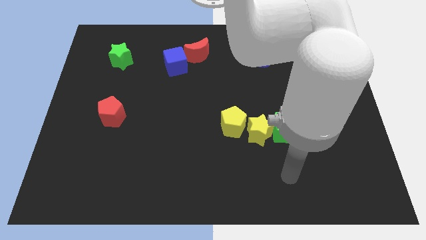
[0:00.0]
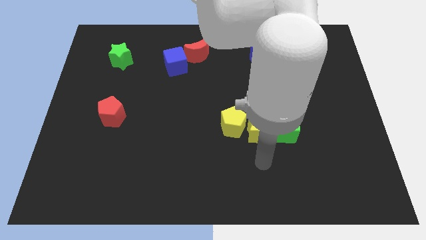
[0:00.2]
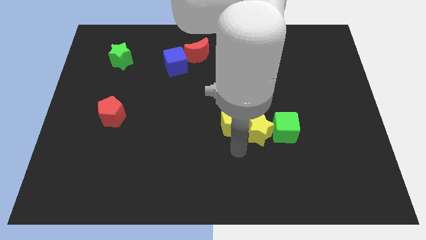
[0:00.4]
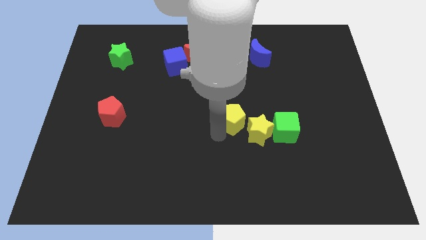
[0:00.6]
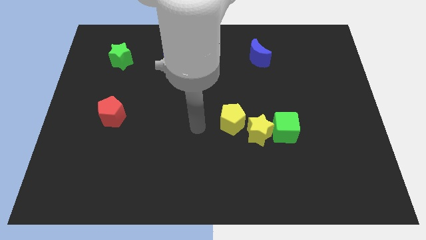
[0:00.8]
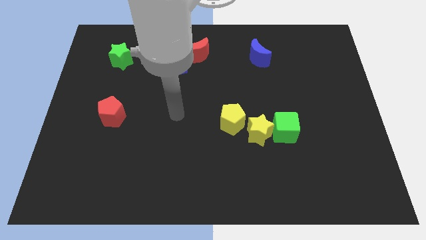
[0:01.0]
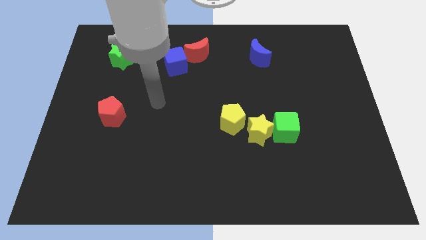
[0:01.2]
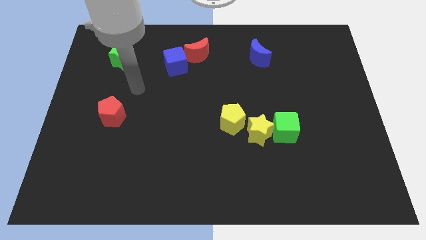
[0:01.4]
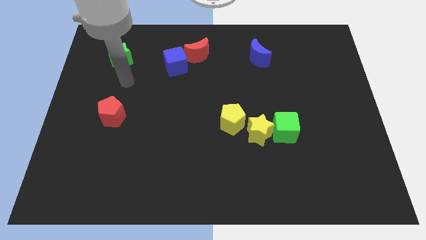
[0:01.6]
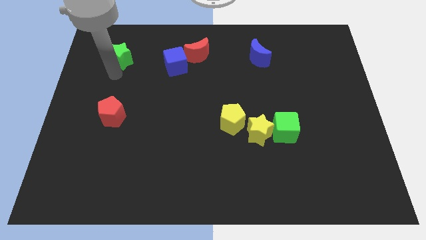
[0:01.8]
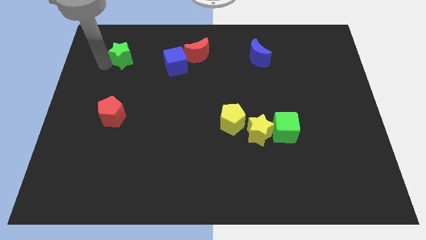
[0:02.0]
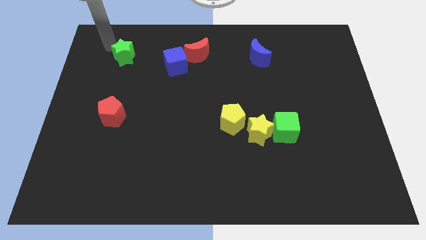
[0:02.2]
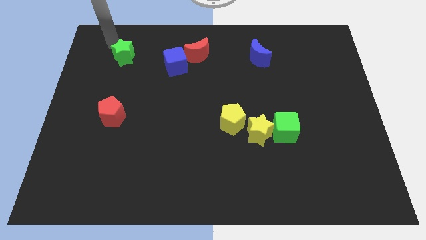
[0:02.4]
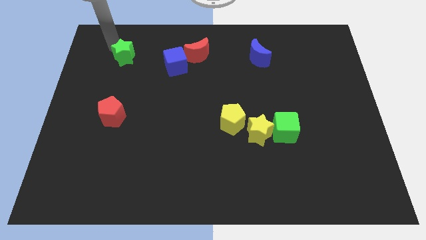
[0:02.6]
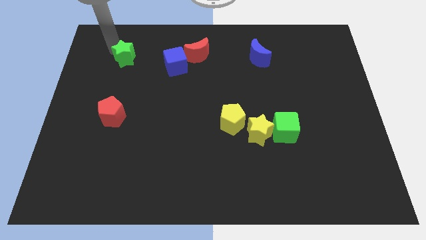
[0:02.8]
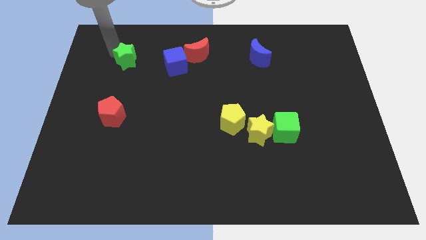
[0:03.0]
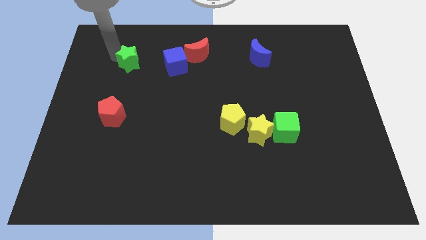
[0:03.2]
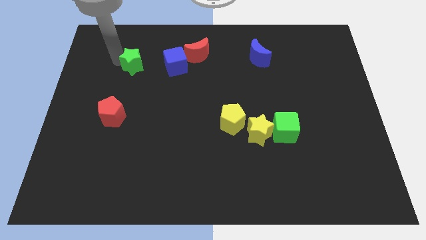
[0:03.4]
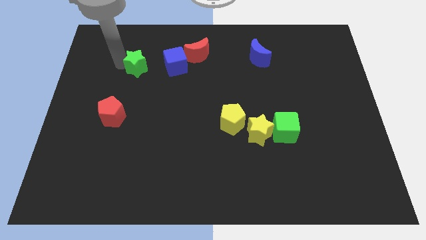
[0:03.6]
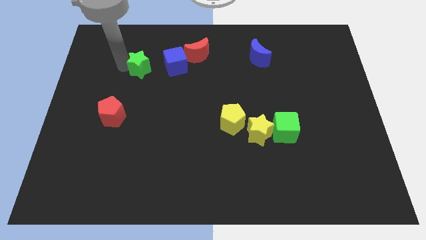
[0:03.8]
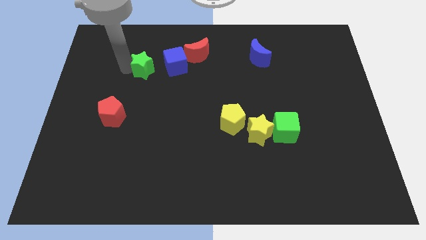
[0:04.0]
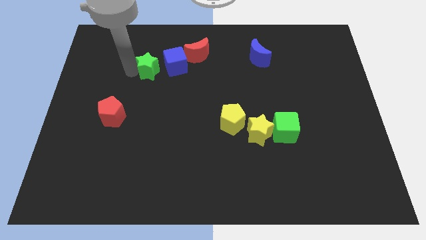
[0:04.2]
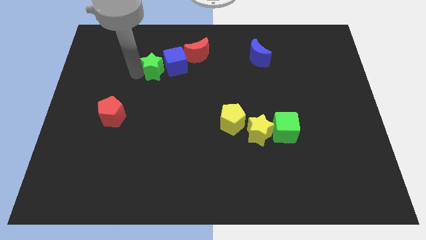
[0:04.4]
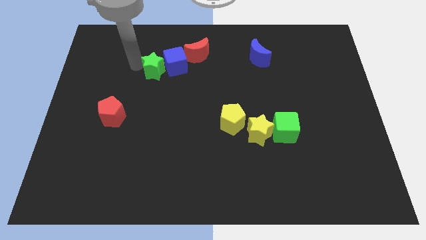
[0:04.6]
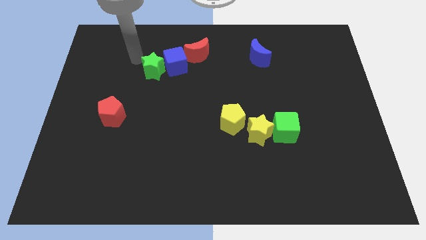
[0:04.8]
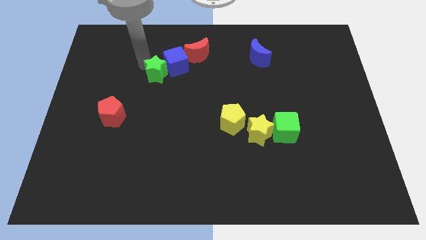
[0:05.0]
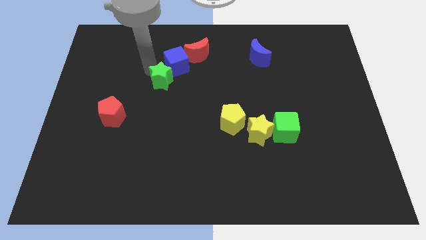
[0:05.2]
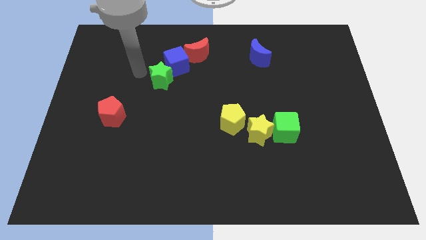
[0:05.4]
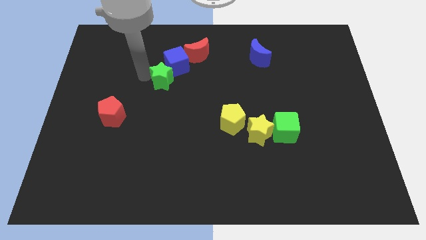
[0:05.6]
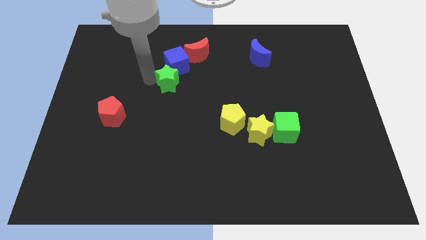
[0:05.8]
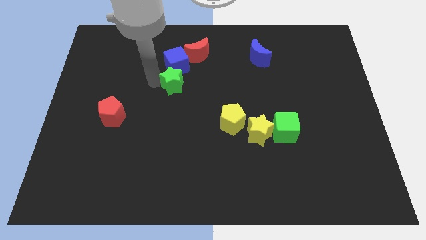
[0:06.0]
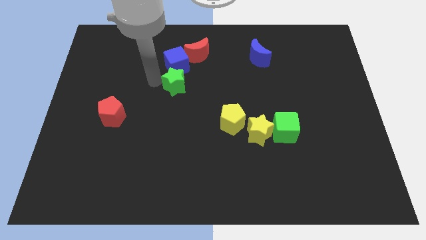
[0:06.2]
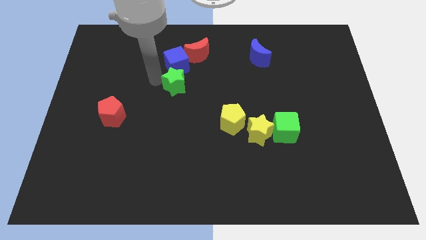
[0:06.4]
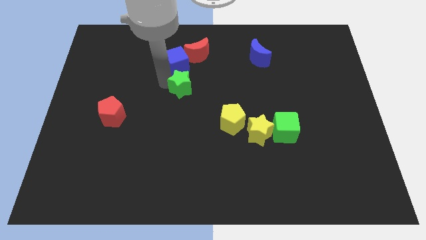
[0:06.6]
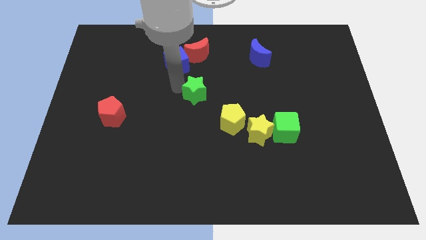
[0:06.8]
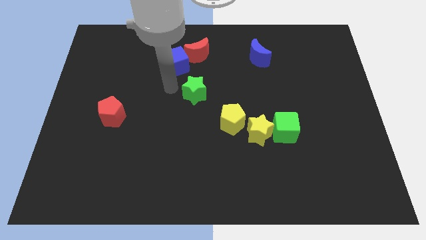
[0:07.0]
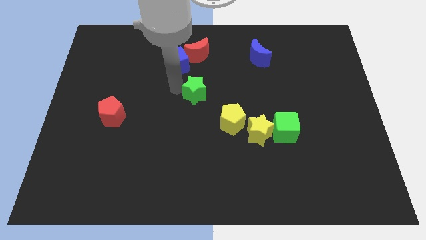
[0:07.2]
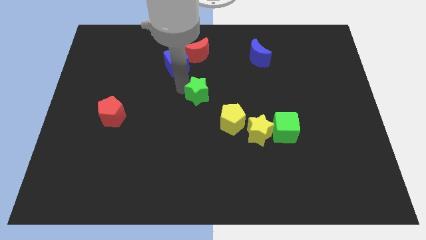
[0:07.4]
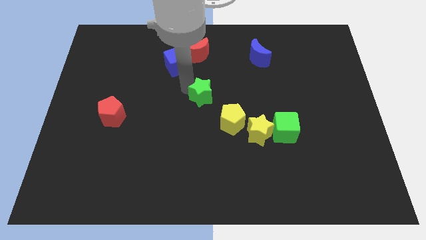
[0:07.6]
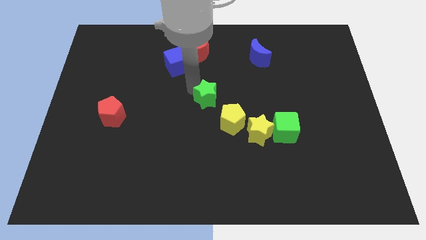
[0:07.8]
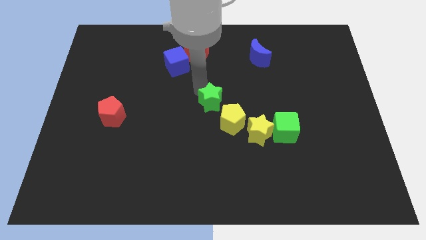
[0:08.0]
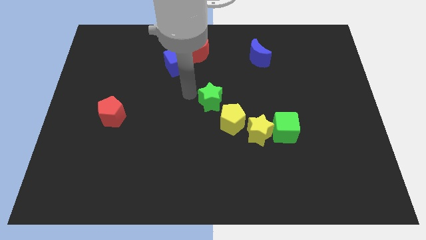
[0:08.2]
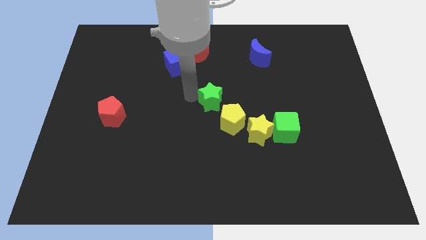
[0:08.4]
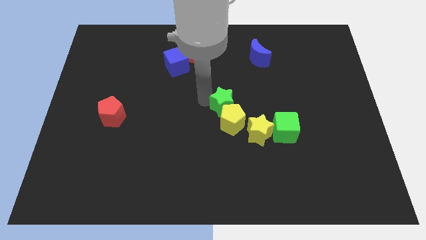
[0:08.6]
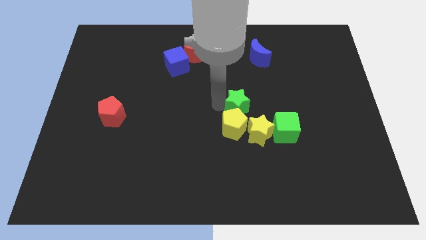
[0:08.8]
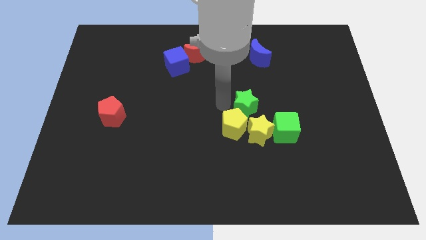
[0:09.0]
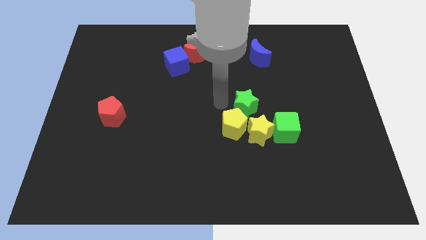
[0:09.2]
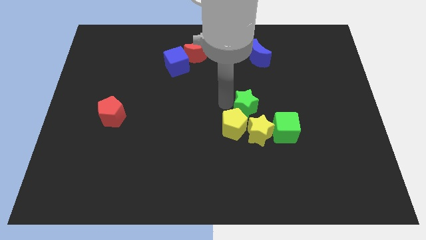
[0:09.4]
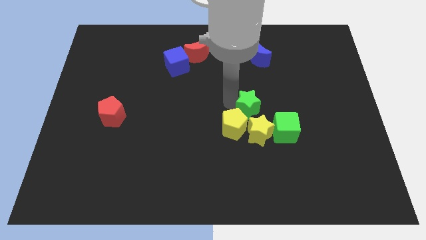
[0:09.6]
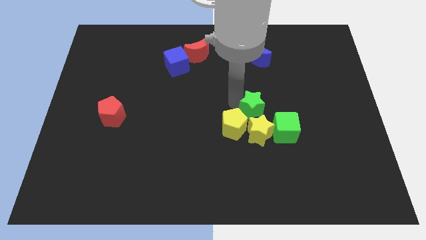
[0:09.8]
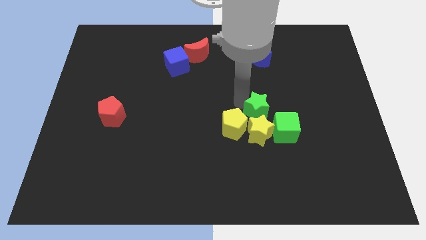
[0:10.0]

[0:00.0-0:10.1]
slide the green star diagonally up and to the right of the yellow star

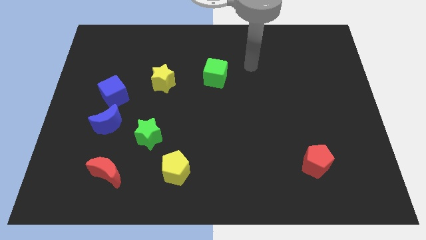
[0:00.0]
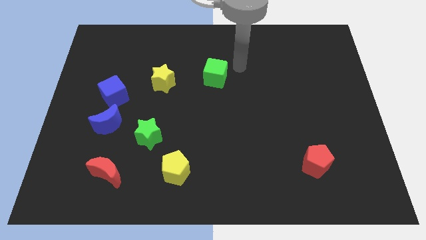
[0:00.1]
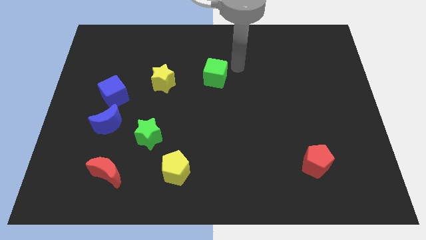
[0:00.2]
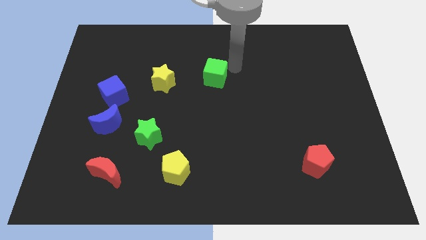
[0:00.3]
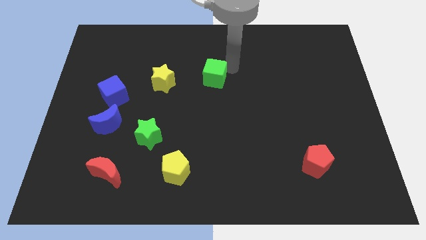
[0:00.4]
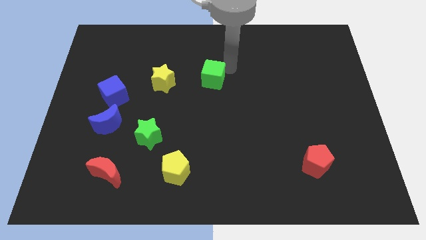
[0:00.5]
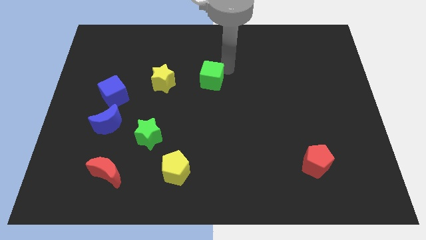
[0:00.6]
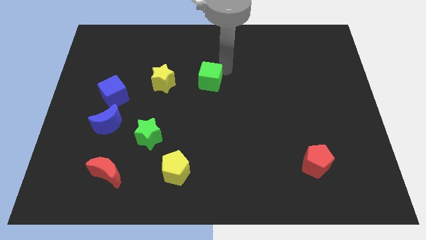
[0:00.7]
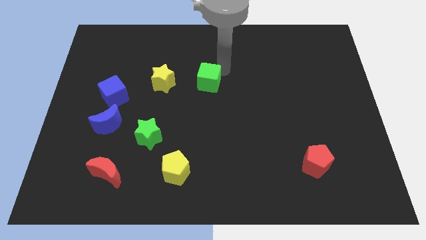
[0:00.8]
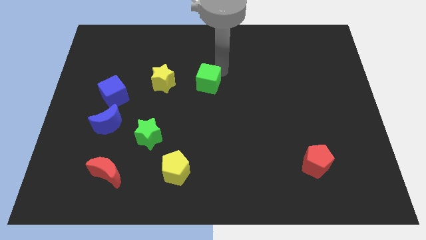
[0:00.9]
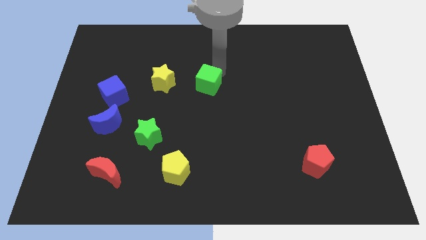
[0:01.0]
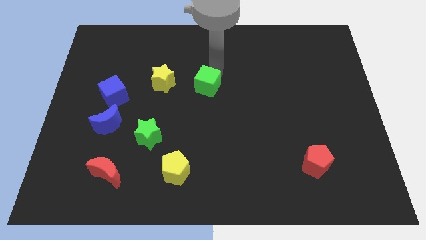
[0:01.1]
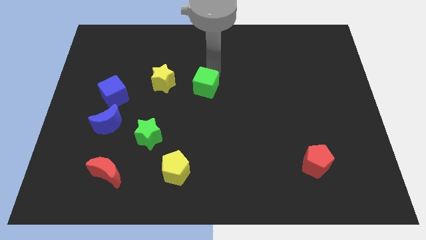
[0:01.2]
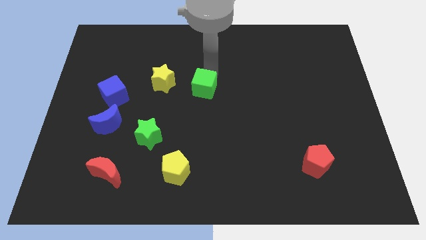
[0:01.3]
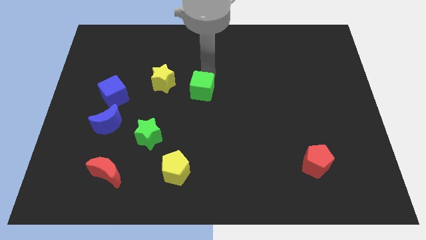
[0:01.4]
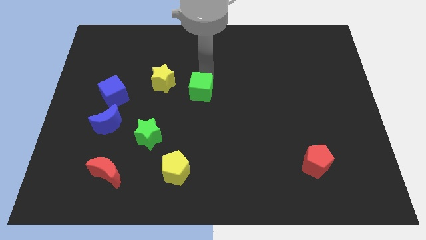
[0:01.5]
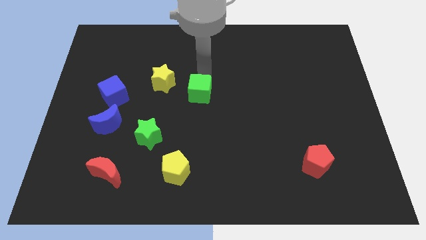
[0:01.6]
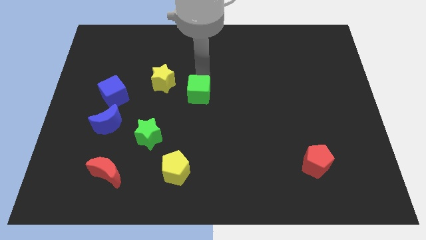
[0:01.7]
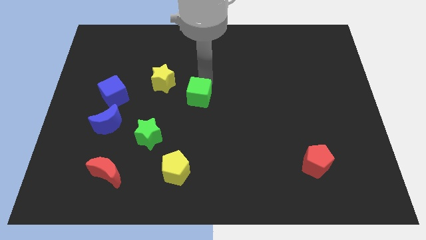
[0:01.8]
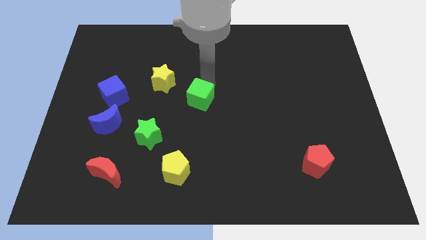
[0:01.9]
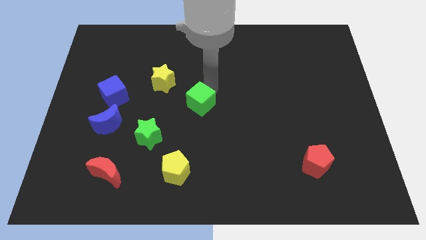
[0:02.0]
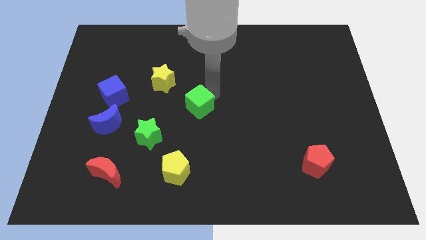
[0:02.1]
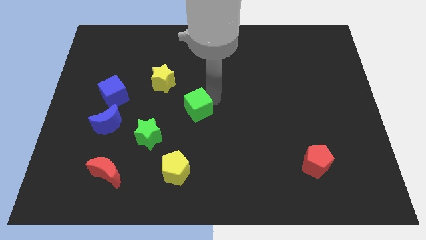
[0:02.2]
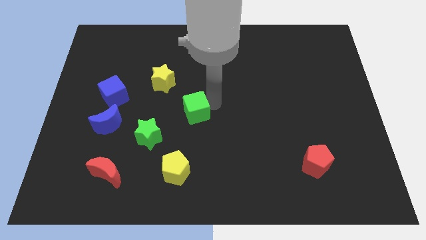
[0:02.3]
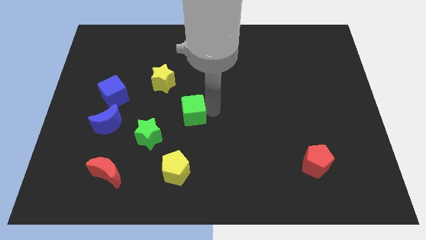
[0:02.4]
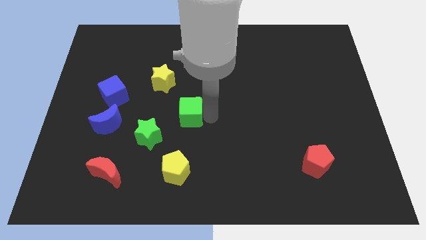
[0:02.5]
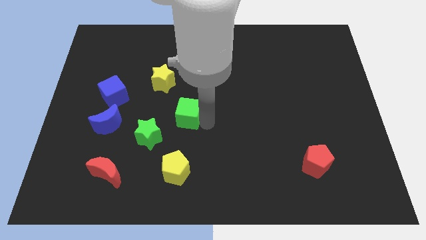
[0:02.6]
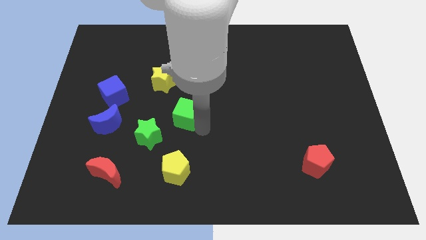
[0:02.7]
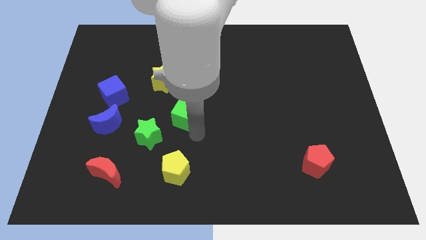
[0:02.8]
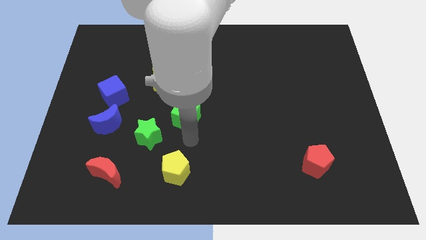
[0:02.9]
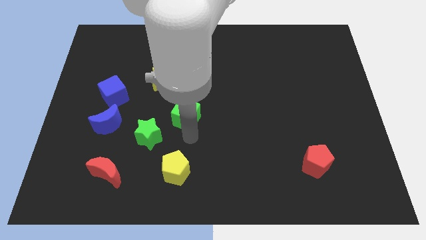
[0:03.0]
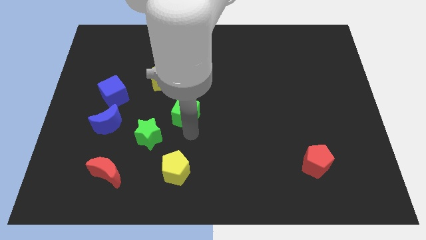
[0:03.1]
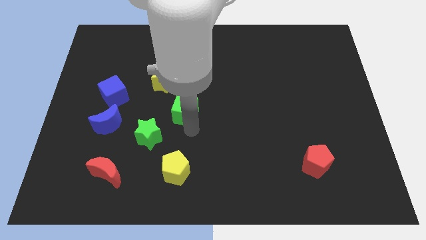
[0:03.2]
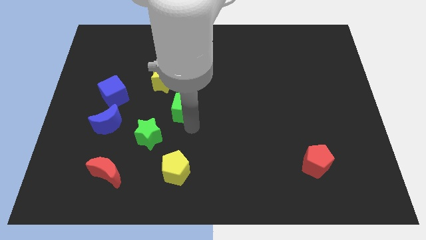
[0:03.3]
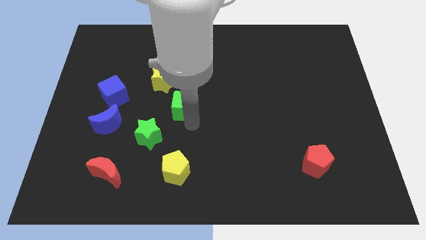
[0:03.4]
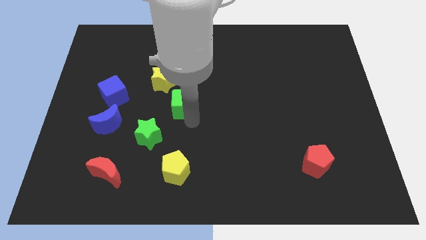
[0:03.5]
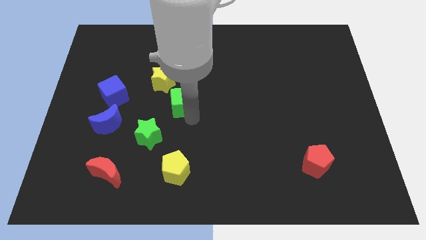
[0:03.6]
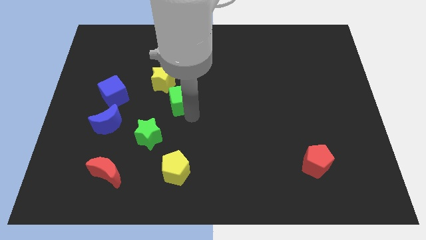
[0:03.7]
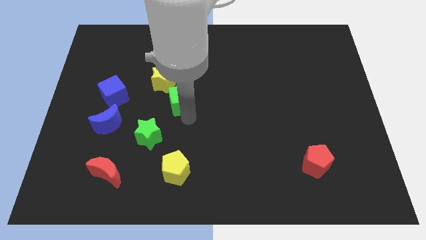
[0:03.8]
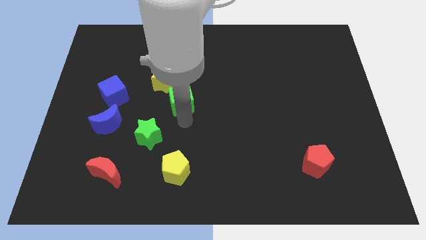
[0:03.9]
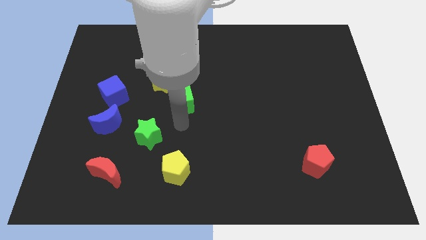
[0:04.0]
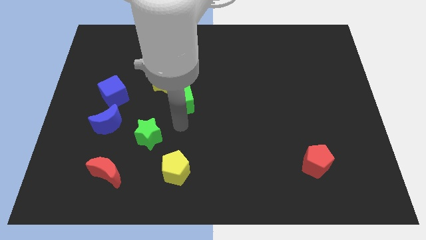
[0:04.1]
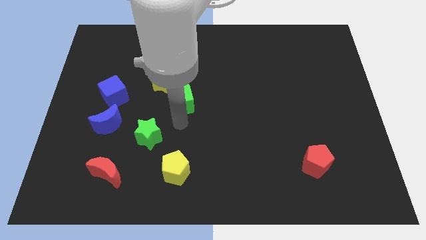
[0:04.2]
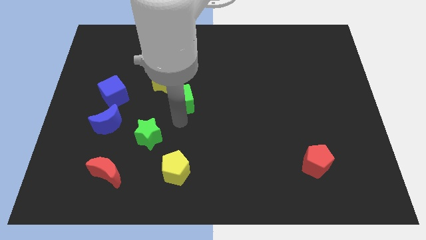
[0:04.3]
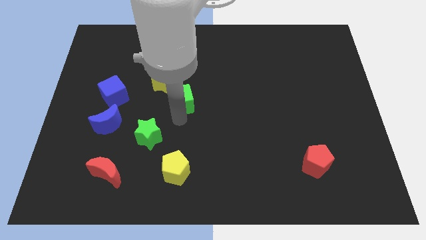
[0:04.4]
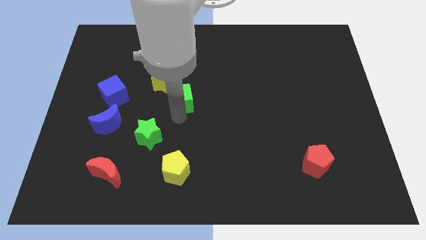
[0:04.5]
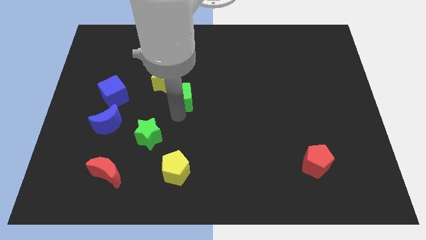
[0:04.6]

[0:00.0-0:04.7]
put the green cube to the right of the blue cube
